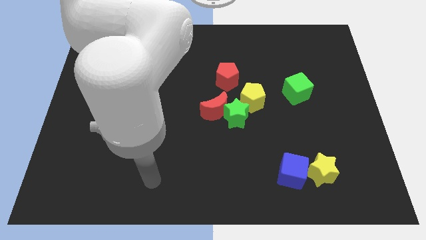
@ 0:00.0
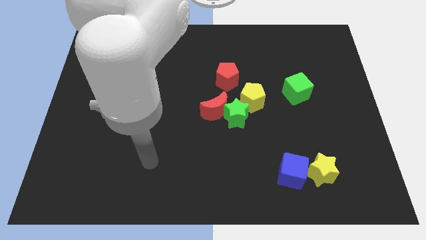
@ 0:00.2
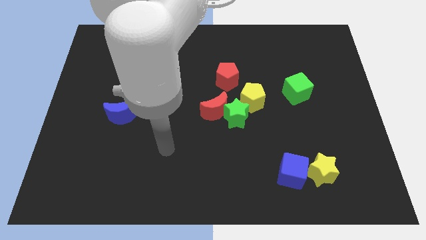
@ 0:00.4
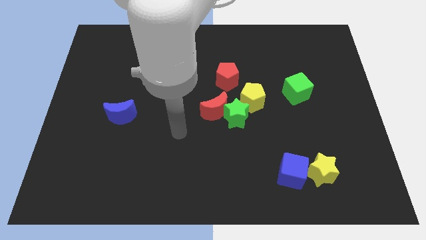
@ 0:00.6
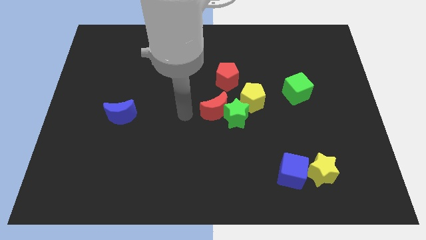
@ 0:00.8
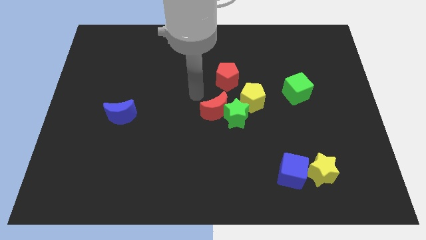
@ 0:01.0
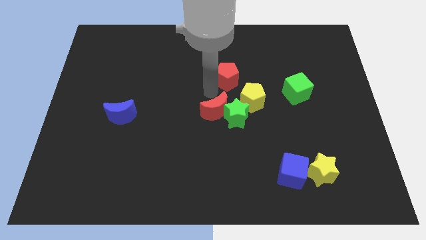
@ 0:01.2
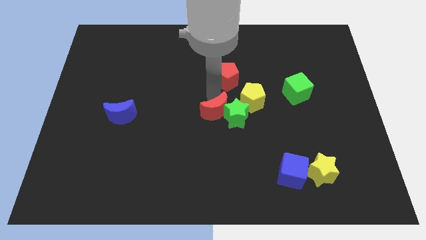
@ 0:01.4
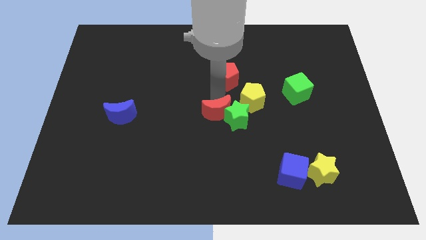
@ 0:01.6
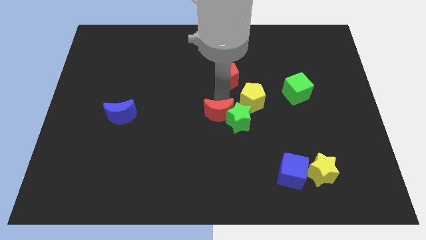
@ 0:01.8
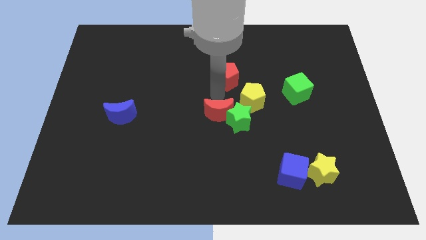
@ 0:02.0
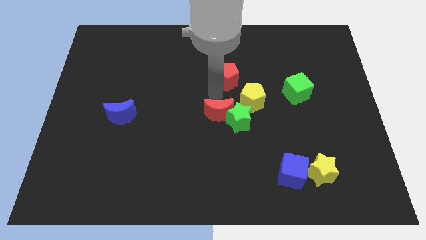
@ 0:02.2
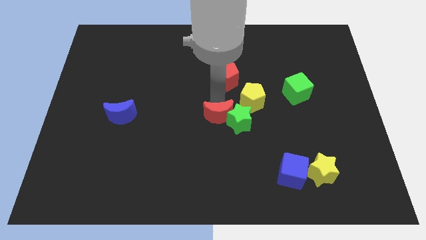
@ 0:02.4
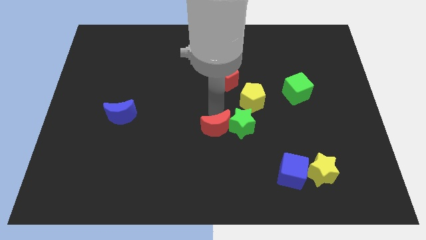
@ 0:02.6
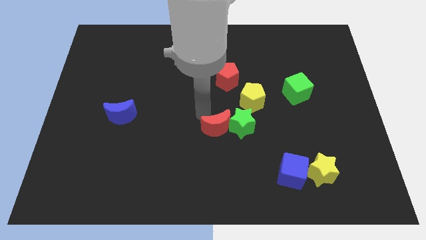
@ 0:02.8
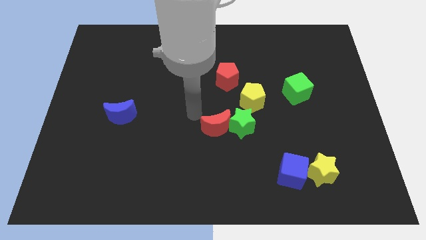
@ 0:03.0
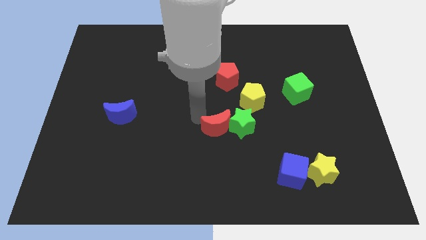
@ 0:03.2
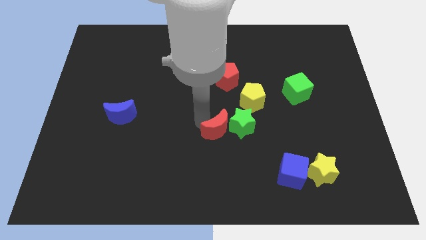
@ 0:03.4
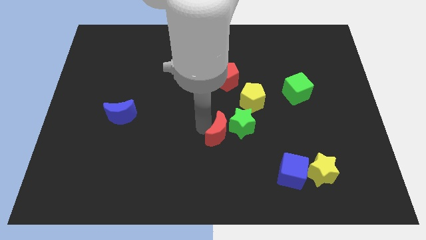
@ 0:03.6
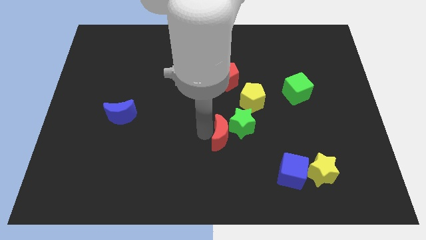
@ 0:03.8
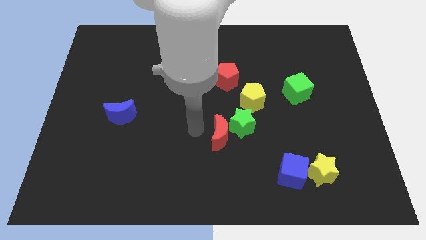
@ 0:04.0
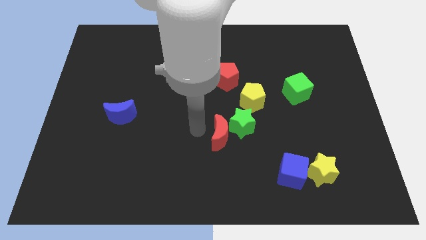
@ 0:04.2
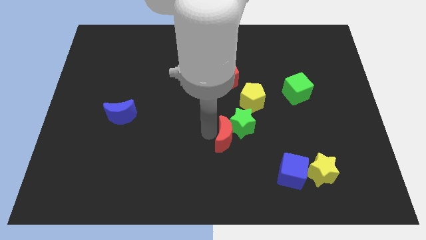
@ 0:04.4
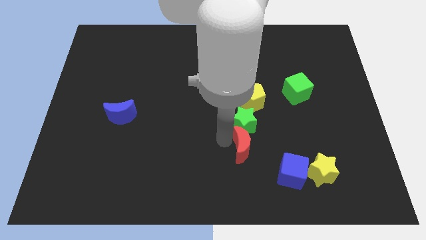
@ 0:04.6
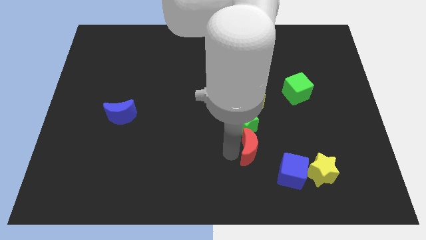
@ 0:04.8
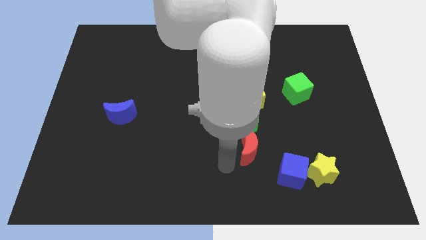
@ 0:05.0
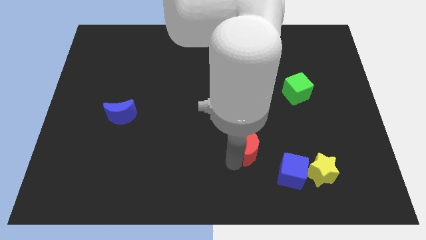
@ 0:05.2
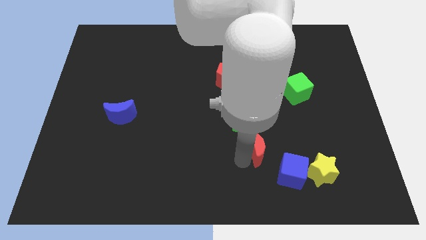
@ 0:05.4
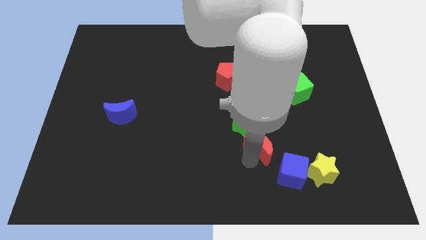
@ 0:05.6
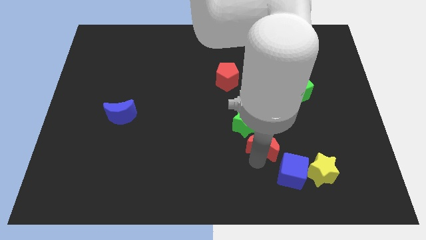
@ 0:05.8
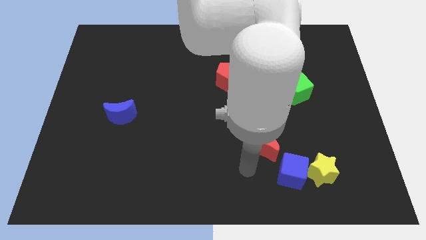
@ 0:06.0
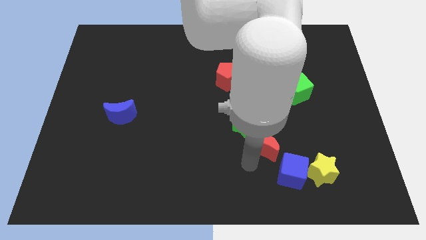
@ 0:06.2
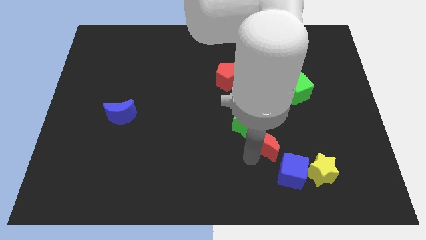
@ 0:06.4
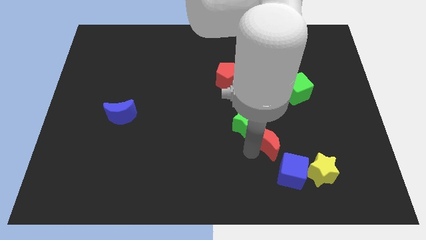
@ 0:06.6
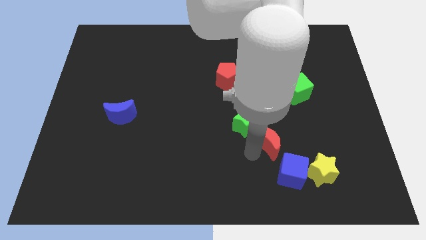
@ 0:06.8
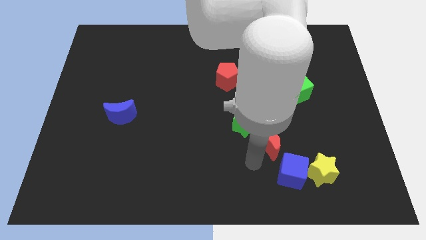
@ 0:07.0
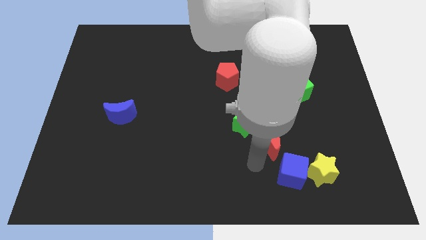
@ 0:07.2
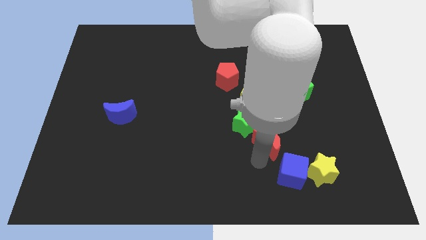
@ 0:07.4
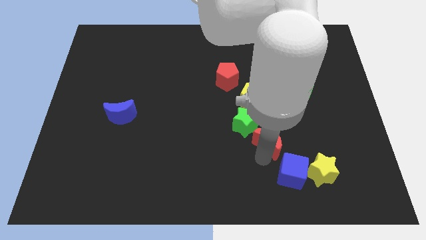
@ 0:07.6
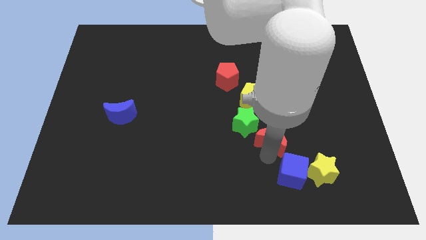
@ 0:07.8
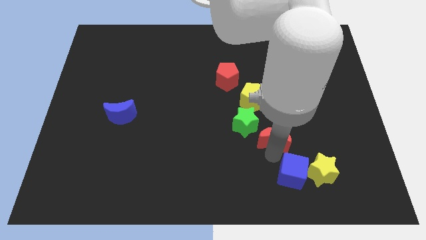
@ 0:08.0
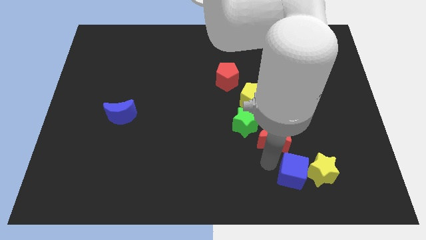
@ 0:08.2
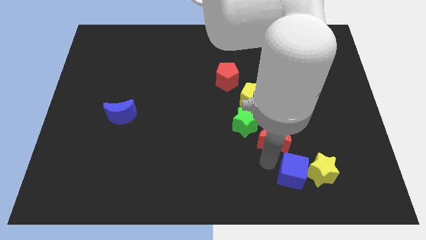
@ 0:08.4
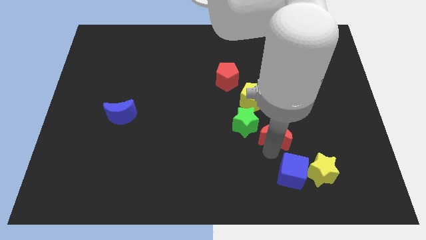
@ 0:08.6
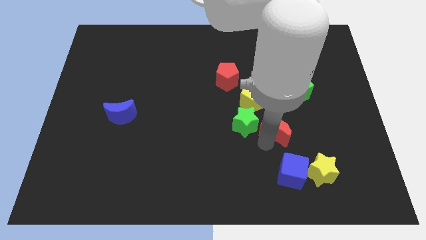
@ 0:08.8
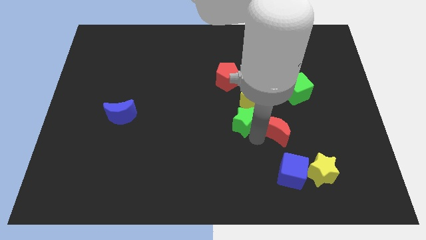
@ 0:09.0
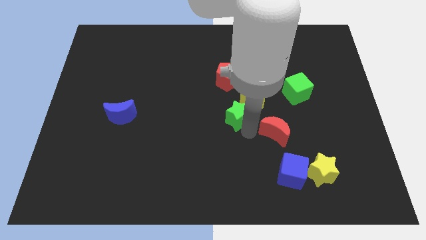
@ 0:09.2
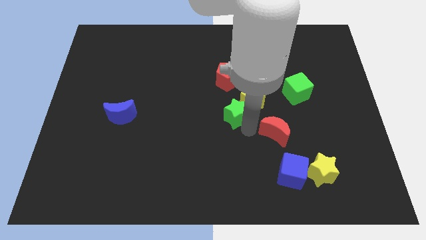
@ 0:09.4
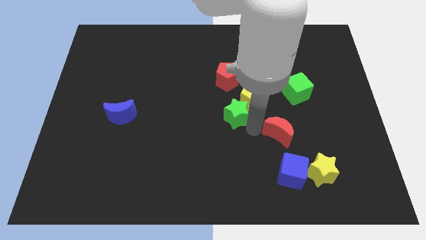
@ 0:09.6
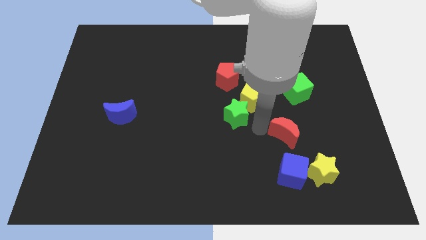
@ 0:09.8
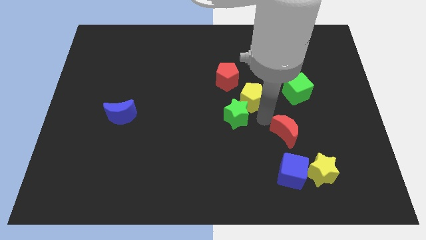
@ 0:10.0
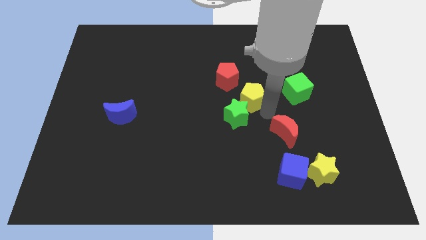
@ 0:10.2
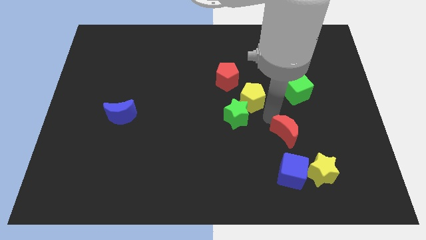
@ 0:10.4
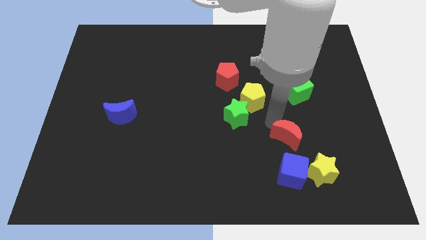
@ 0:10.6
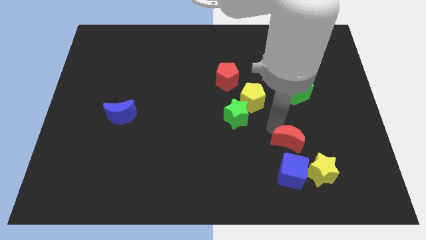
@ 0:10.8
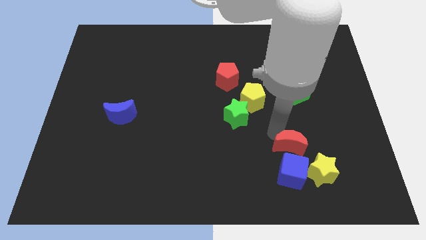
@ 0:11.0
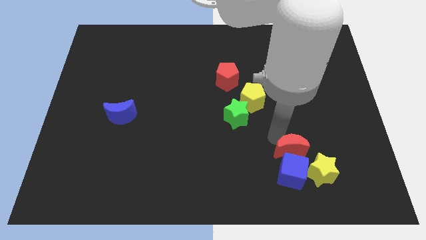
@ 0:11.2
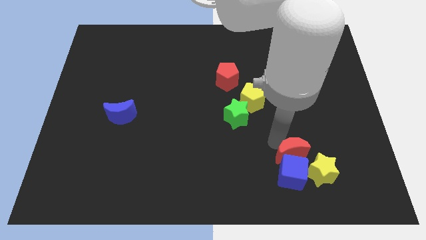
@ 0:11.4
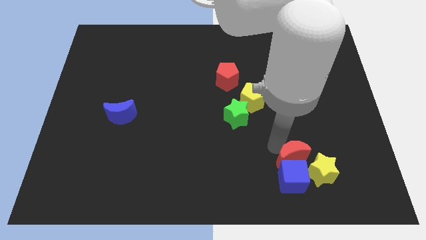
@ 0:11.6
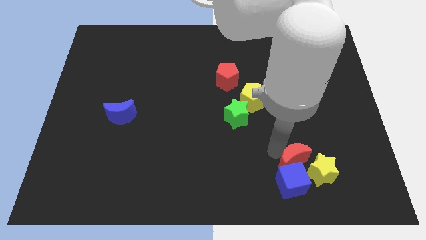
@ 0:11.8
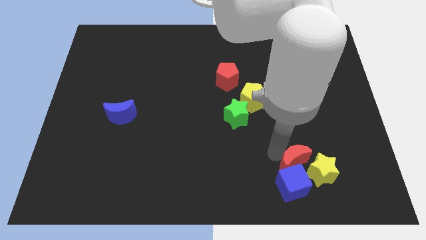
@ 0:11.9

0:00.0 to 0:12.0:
push the red moon close to the yellow star

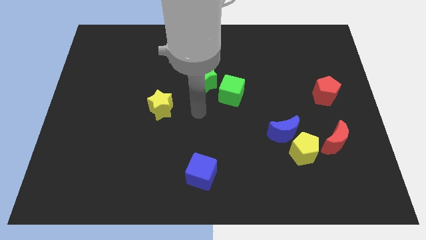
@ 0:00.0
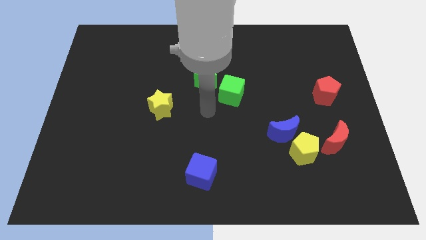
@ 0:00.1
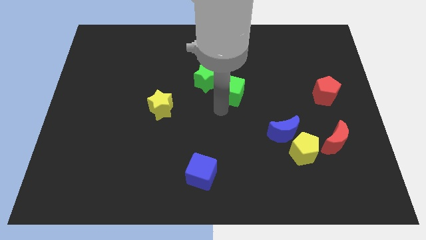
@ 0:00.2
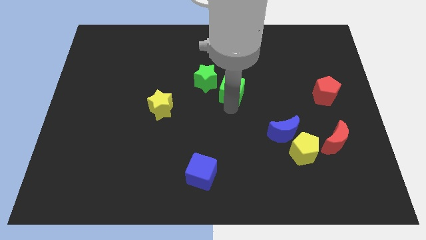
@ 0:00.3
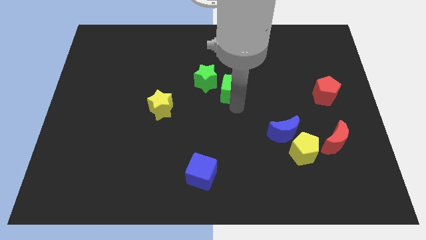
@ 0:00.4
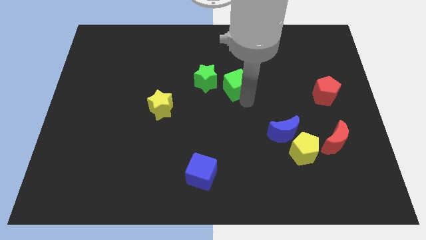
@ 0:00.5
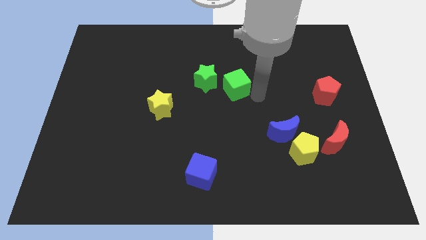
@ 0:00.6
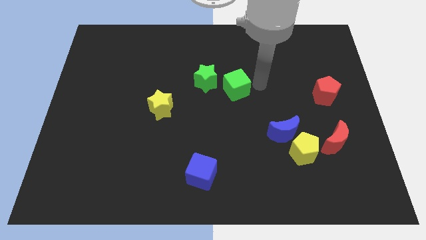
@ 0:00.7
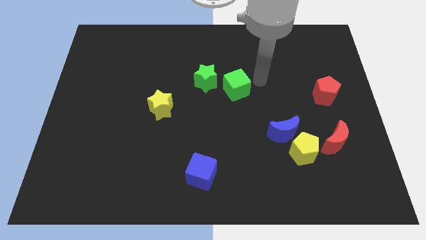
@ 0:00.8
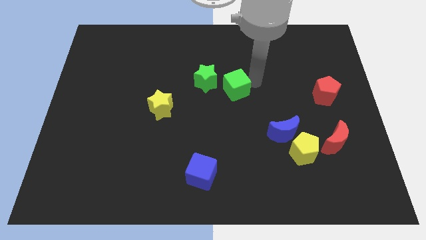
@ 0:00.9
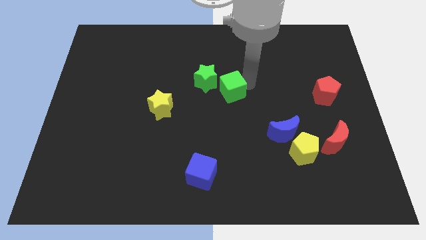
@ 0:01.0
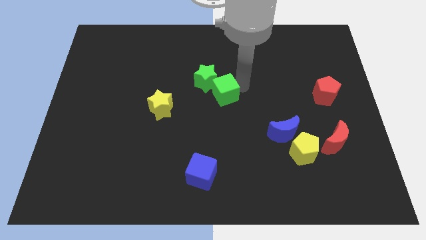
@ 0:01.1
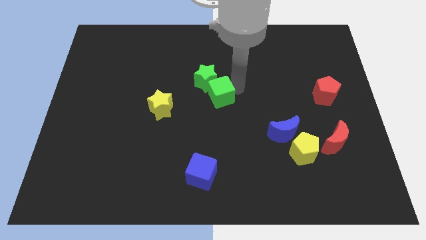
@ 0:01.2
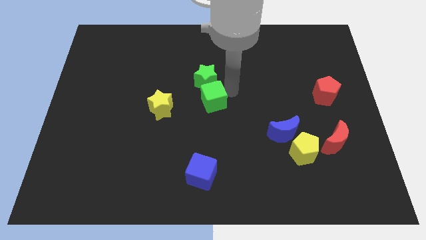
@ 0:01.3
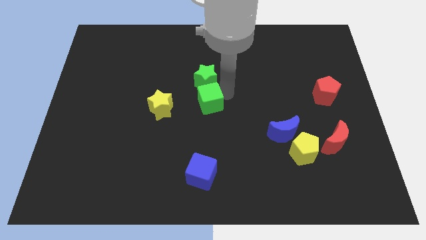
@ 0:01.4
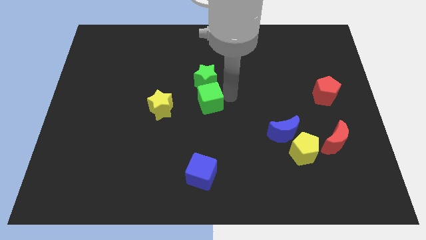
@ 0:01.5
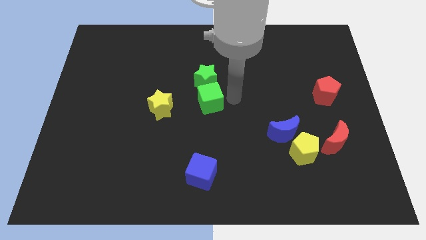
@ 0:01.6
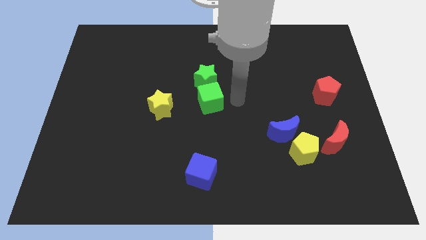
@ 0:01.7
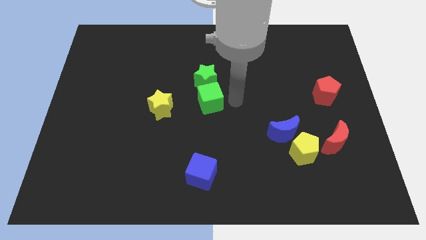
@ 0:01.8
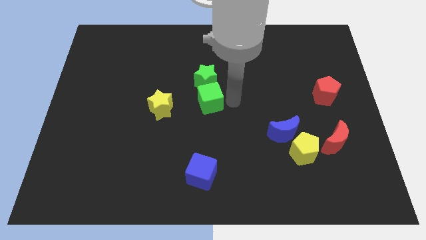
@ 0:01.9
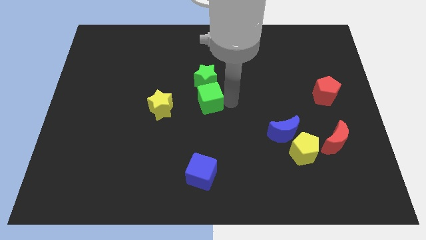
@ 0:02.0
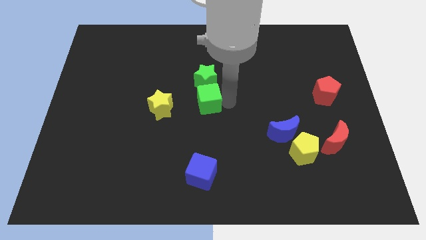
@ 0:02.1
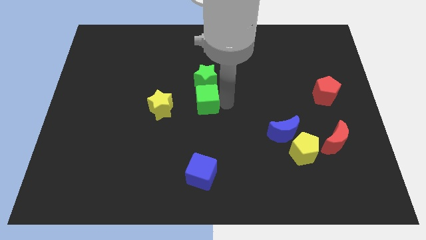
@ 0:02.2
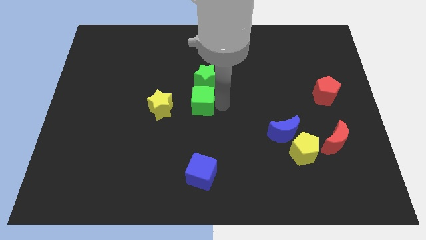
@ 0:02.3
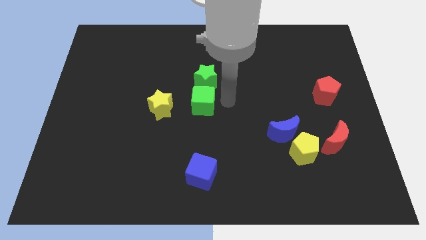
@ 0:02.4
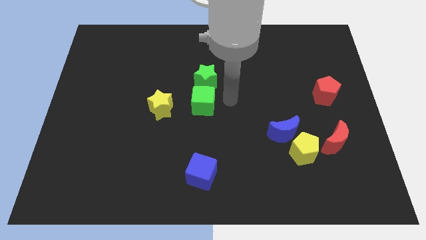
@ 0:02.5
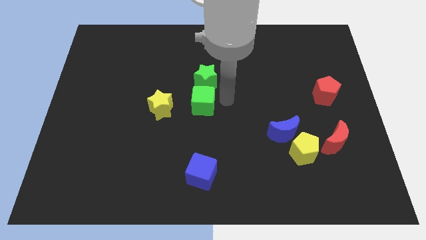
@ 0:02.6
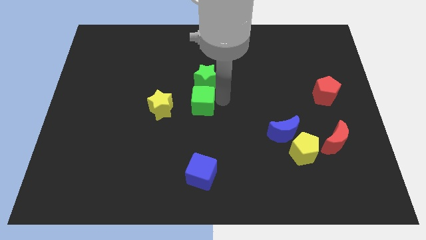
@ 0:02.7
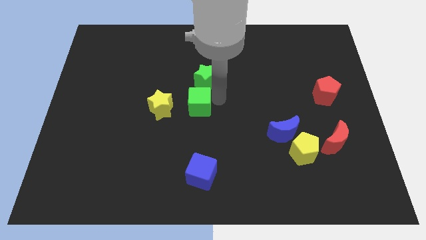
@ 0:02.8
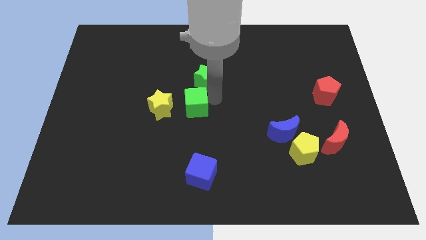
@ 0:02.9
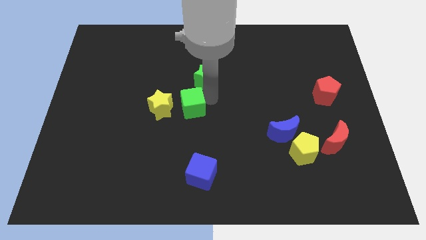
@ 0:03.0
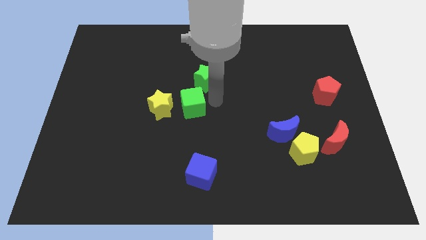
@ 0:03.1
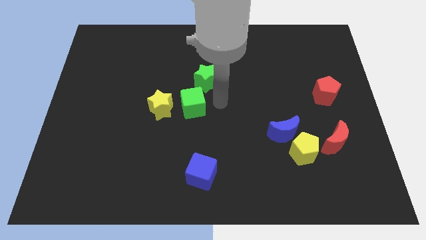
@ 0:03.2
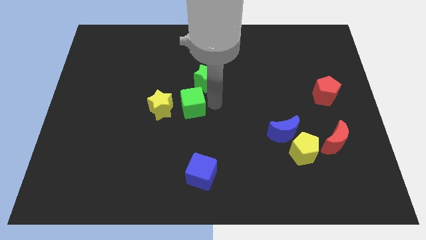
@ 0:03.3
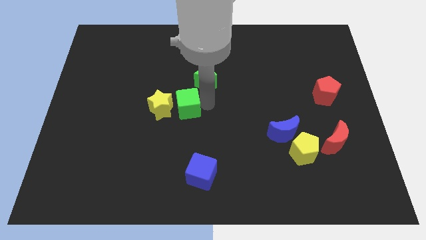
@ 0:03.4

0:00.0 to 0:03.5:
slide the green cube close to the yellow star
